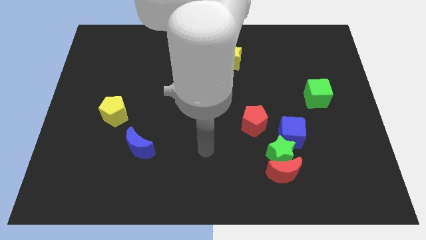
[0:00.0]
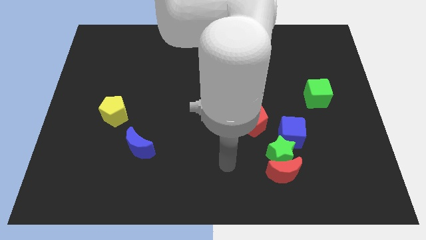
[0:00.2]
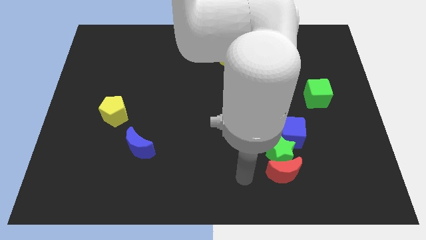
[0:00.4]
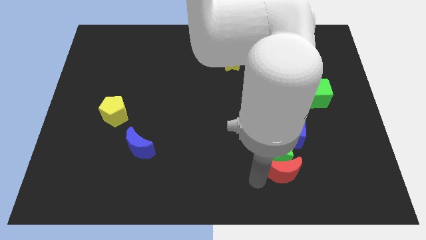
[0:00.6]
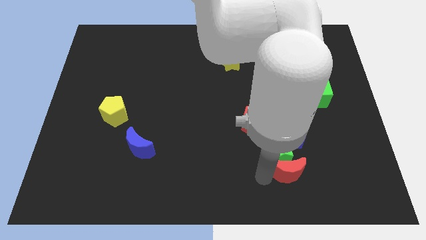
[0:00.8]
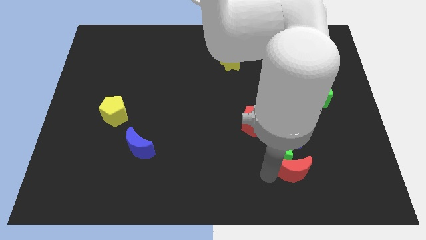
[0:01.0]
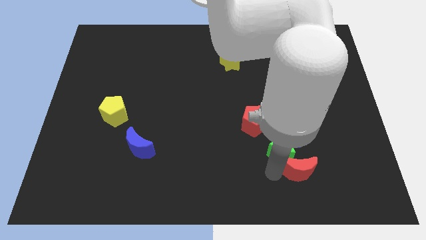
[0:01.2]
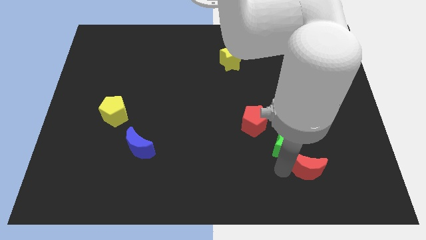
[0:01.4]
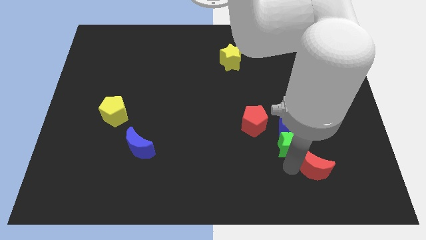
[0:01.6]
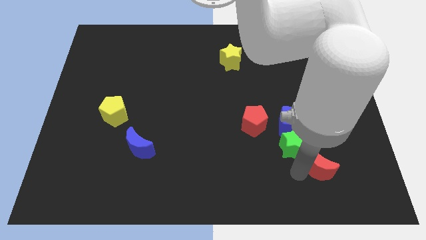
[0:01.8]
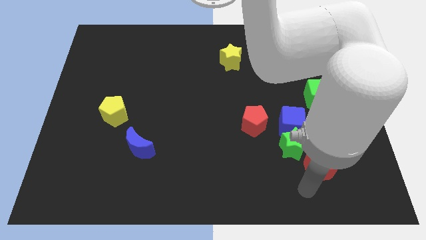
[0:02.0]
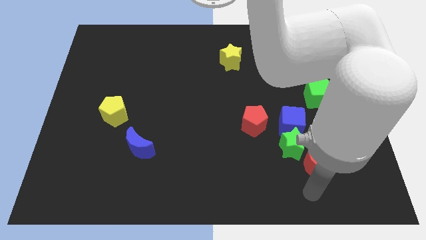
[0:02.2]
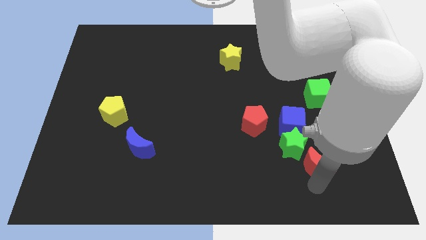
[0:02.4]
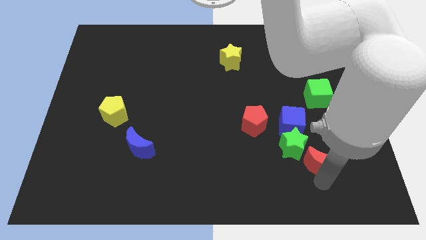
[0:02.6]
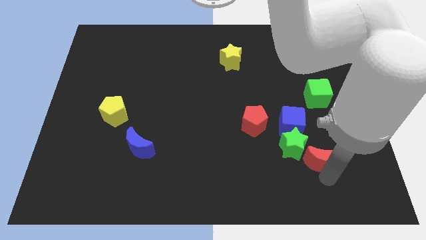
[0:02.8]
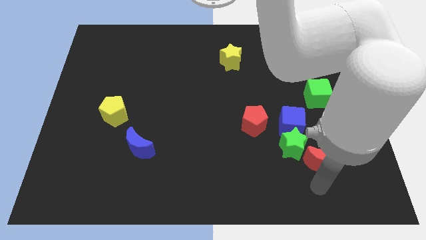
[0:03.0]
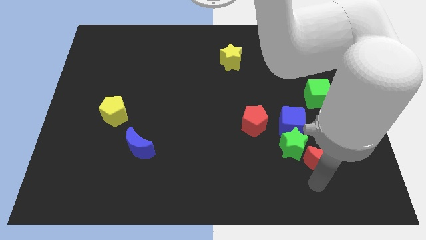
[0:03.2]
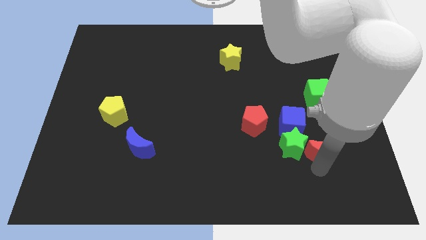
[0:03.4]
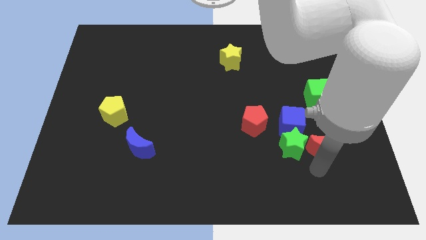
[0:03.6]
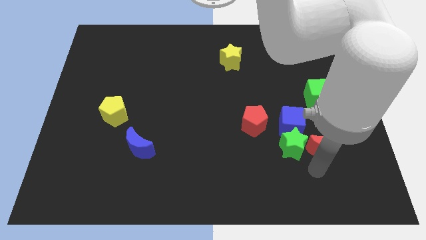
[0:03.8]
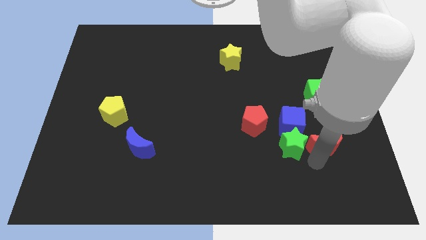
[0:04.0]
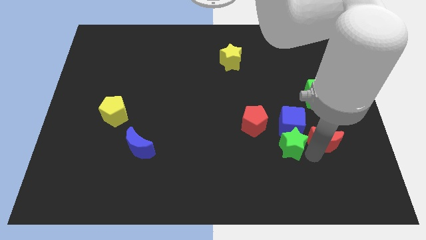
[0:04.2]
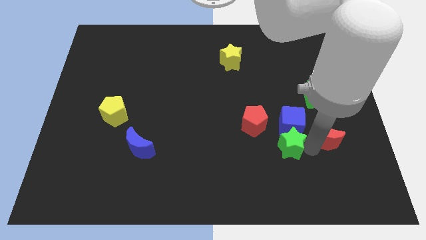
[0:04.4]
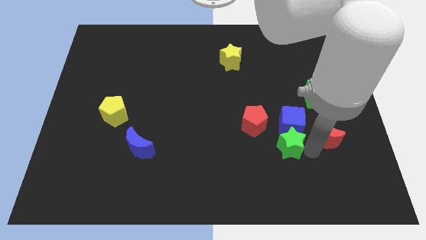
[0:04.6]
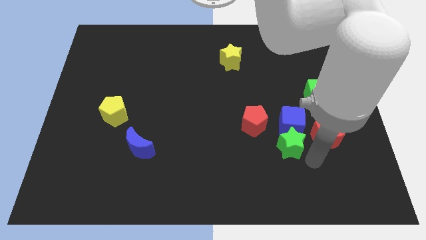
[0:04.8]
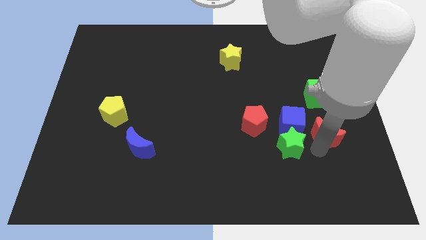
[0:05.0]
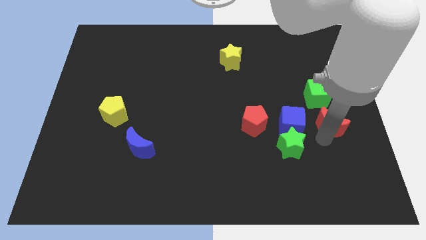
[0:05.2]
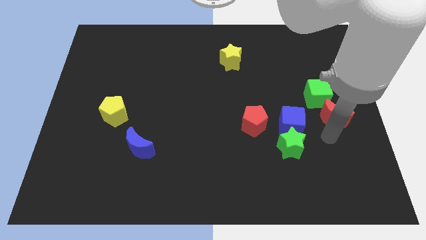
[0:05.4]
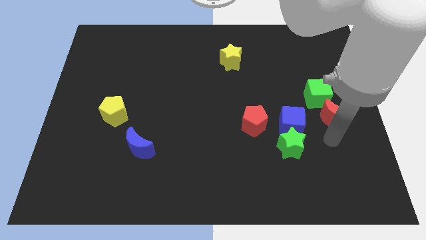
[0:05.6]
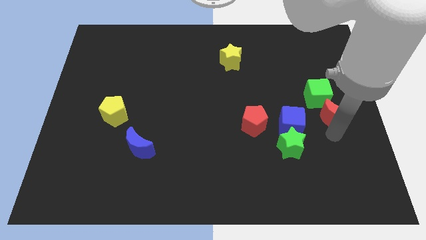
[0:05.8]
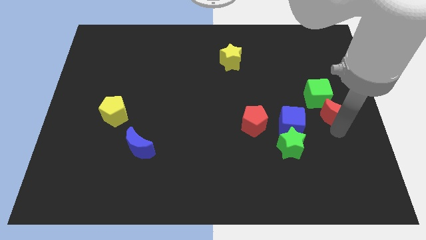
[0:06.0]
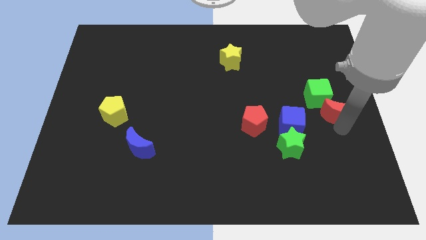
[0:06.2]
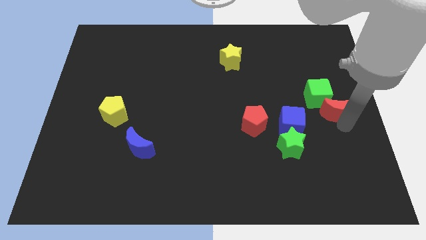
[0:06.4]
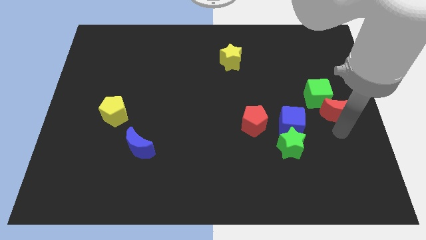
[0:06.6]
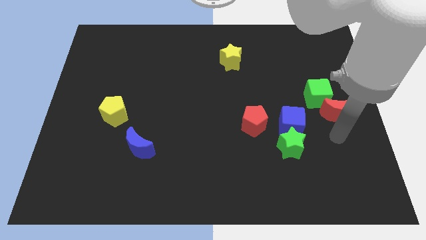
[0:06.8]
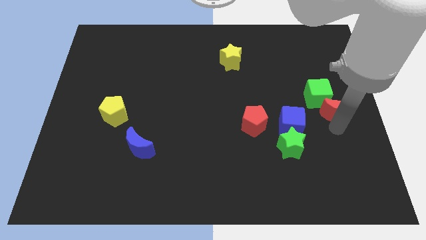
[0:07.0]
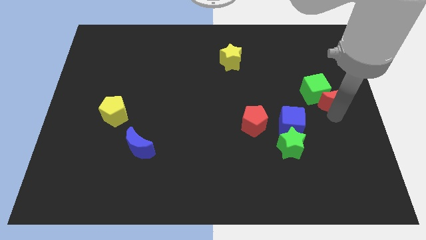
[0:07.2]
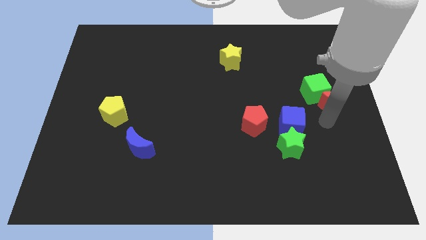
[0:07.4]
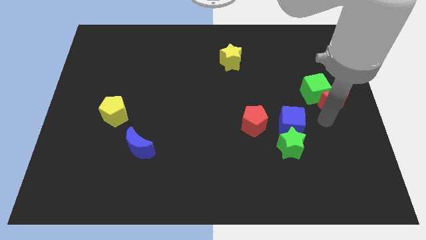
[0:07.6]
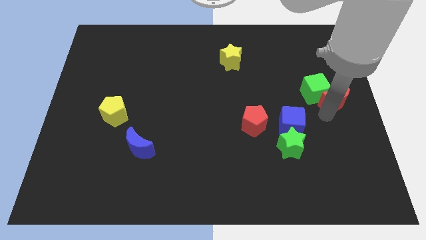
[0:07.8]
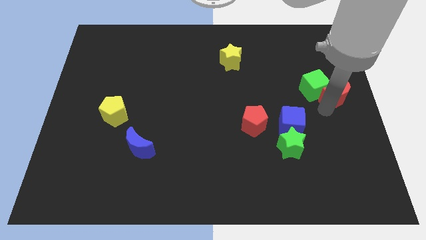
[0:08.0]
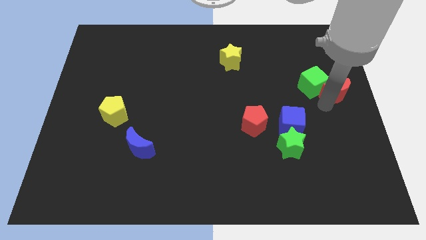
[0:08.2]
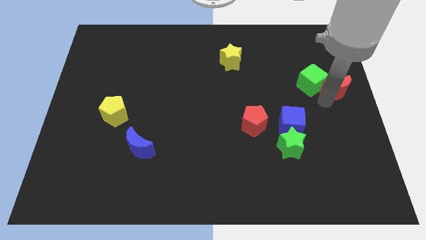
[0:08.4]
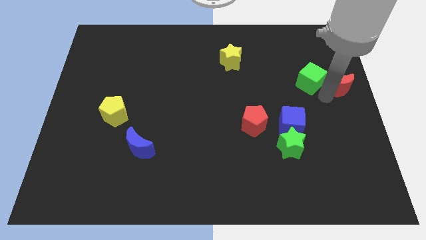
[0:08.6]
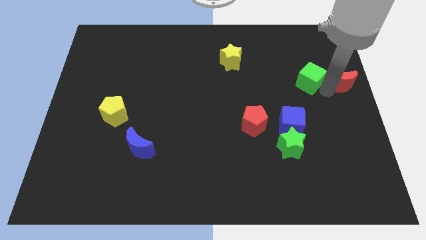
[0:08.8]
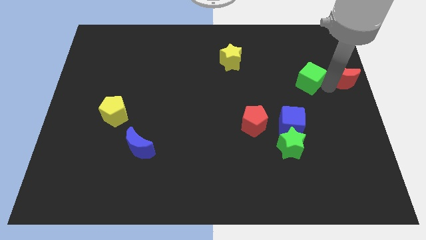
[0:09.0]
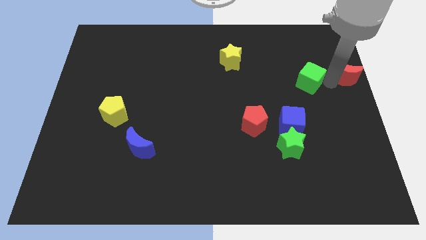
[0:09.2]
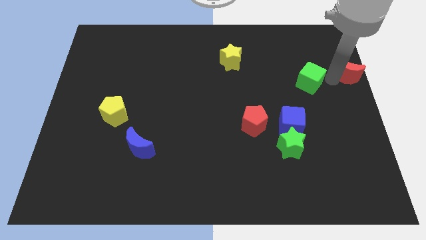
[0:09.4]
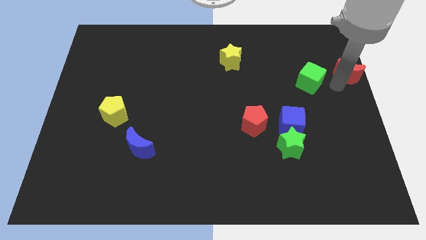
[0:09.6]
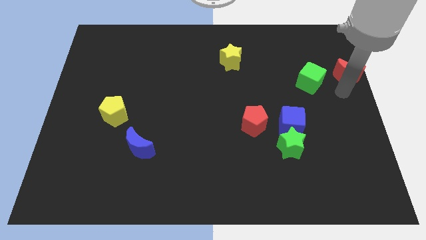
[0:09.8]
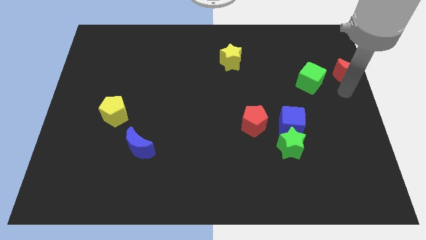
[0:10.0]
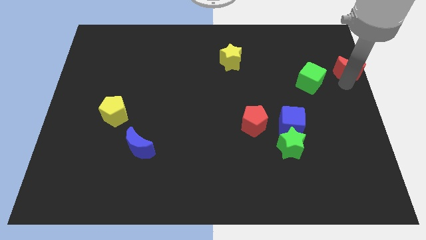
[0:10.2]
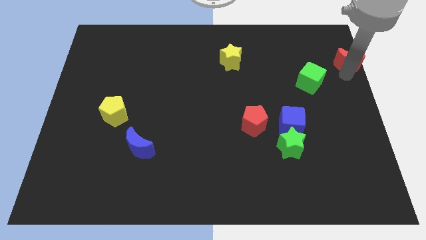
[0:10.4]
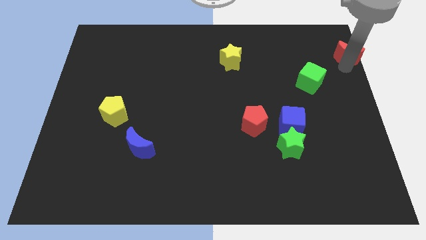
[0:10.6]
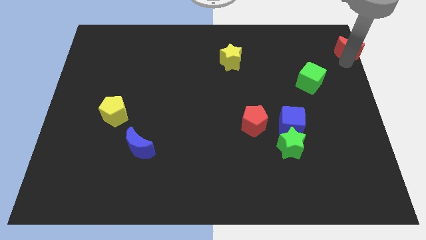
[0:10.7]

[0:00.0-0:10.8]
push the red moon to the top right of the board

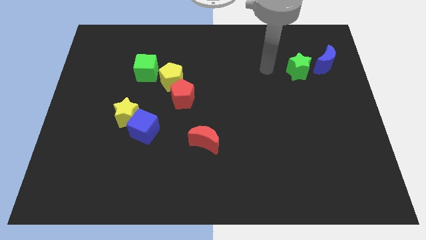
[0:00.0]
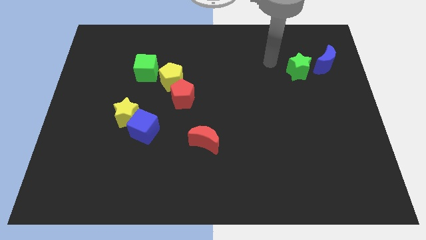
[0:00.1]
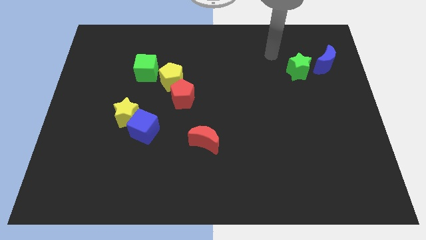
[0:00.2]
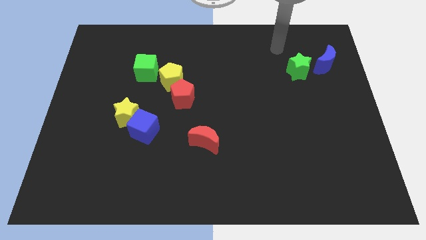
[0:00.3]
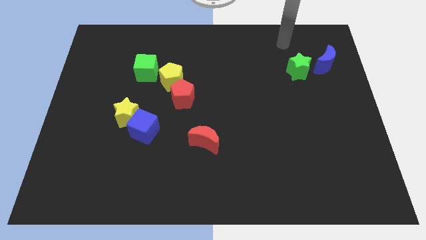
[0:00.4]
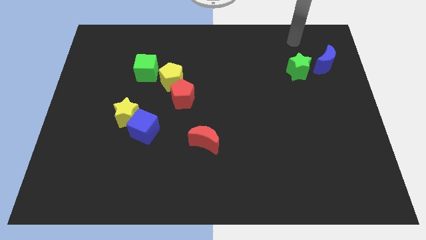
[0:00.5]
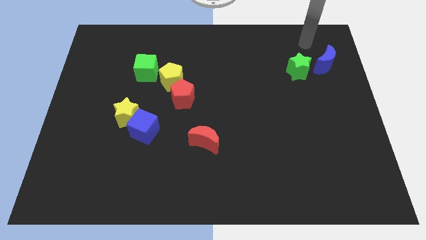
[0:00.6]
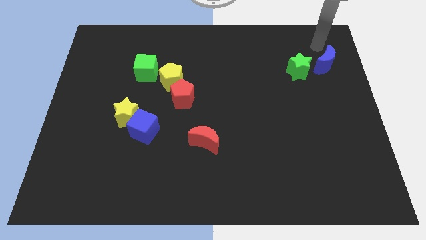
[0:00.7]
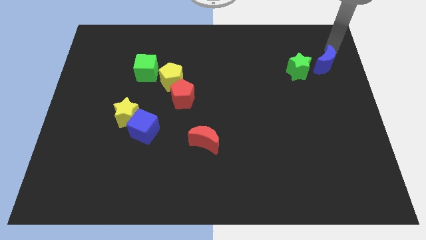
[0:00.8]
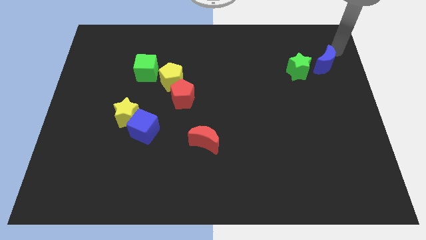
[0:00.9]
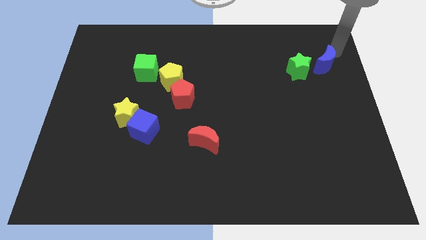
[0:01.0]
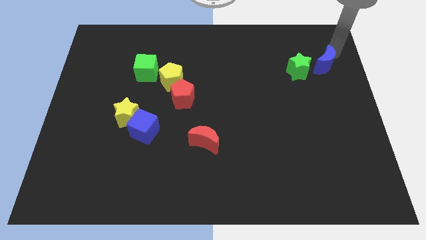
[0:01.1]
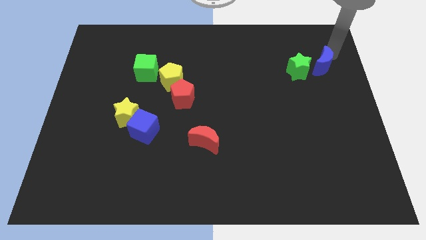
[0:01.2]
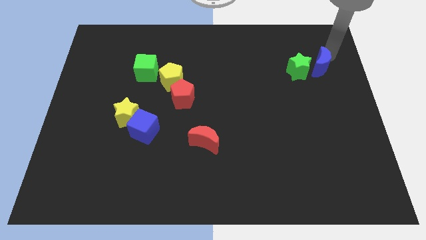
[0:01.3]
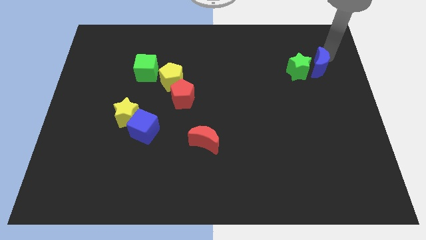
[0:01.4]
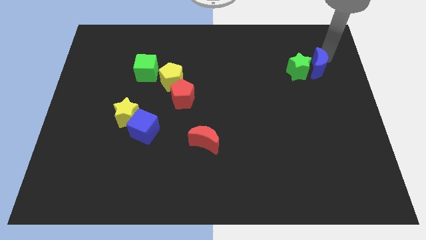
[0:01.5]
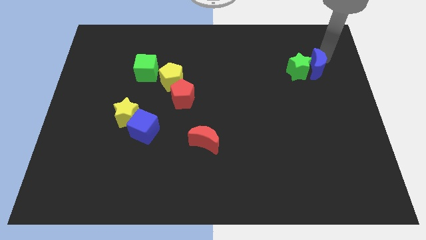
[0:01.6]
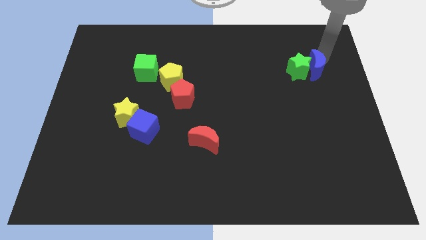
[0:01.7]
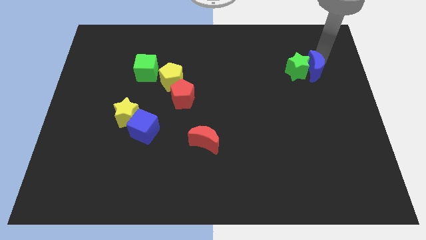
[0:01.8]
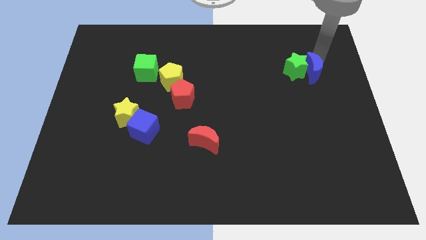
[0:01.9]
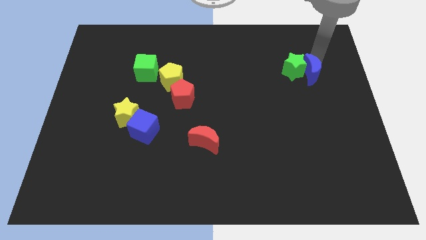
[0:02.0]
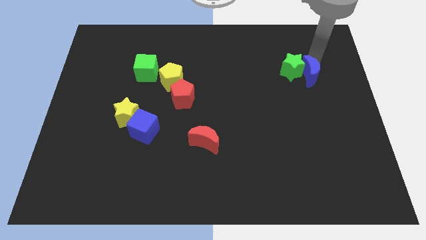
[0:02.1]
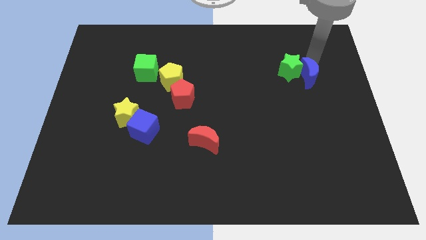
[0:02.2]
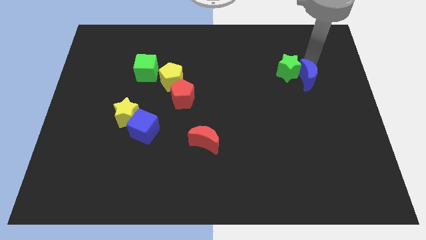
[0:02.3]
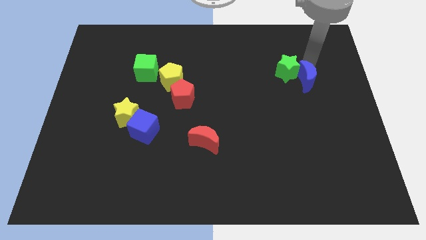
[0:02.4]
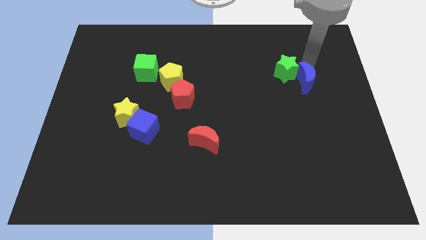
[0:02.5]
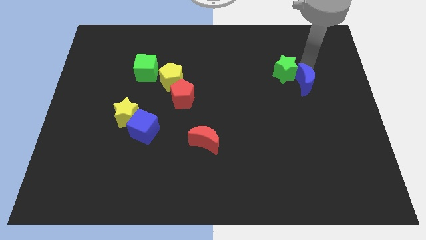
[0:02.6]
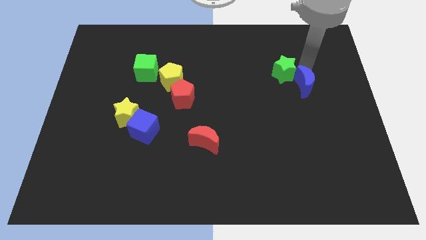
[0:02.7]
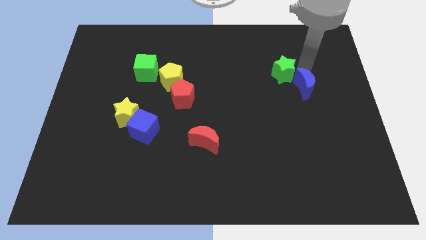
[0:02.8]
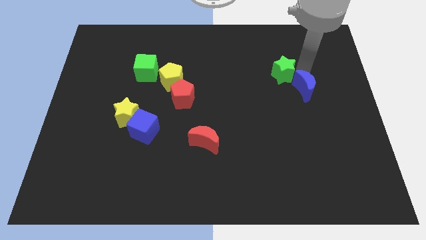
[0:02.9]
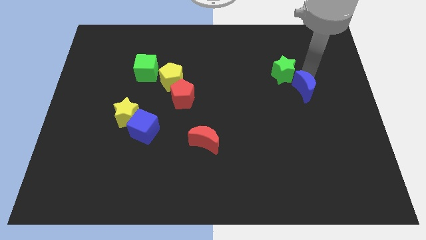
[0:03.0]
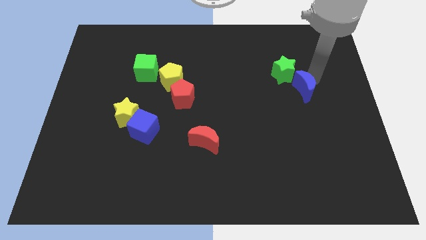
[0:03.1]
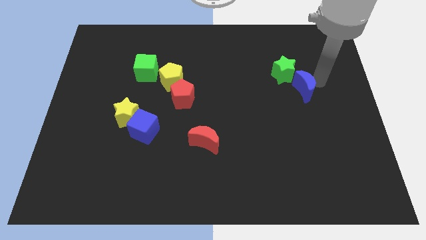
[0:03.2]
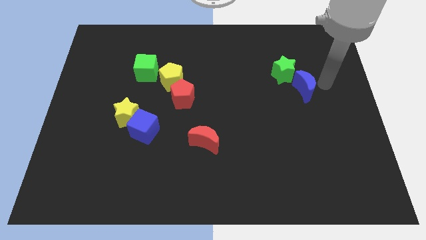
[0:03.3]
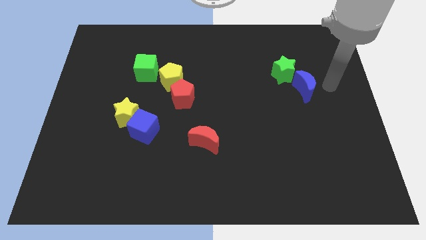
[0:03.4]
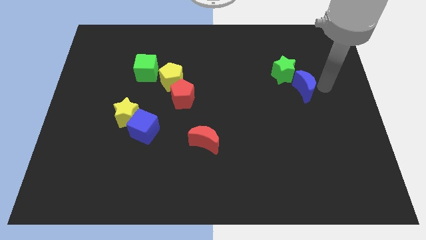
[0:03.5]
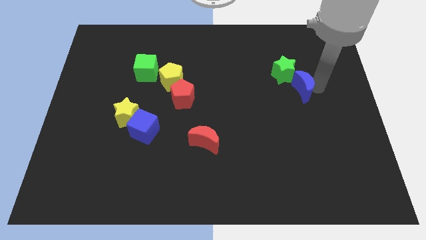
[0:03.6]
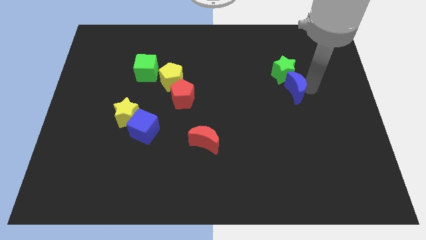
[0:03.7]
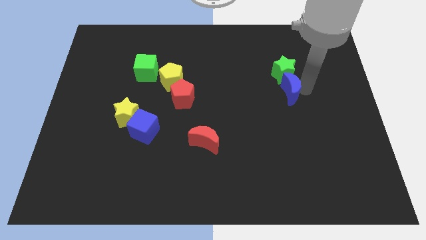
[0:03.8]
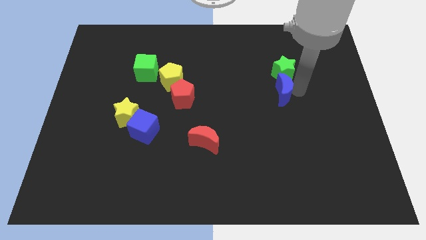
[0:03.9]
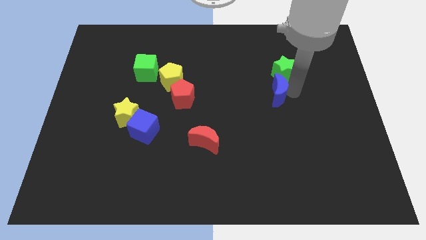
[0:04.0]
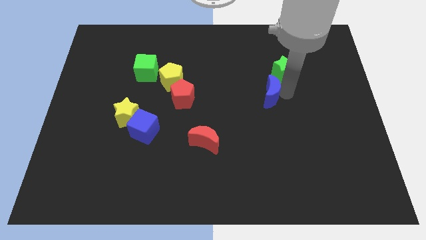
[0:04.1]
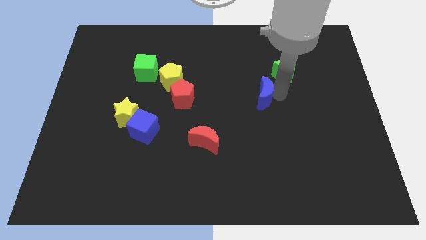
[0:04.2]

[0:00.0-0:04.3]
slide the blue moon to the middle of the board
